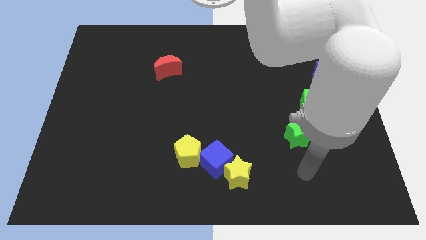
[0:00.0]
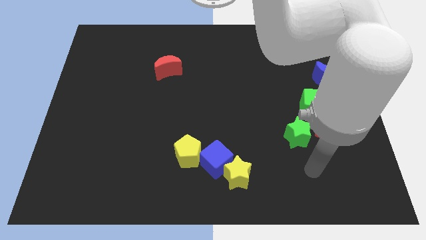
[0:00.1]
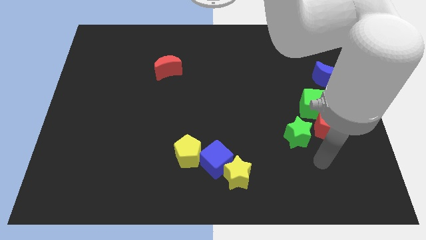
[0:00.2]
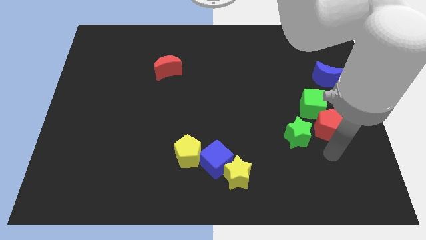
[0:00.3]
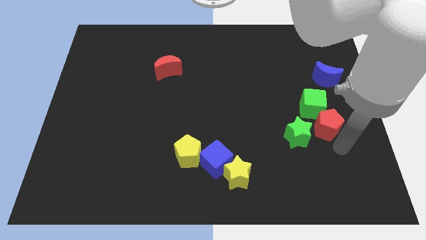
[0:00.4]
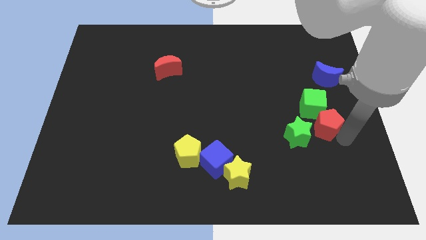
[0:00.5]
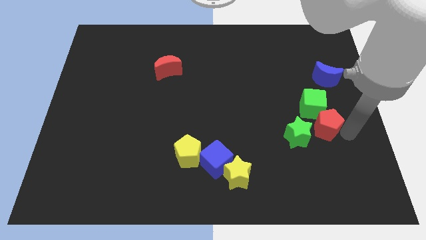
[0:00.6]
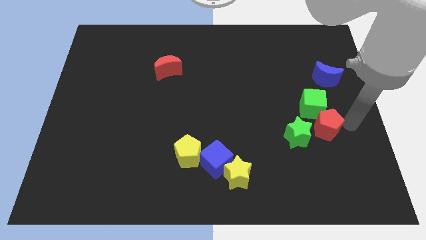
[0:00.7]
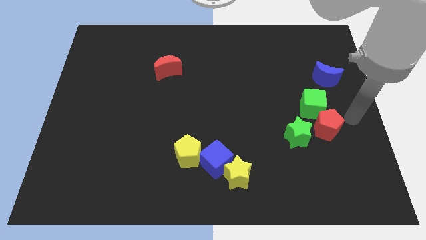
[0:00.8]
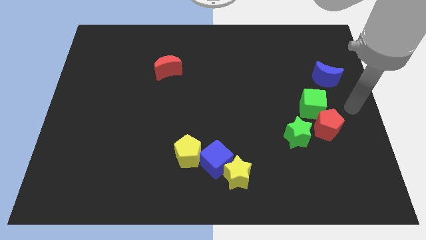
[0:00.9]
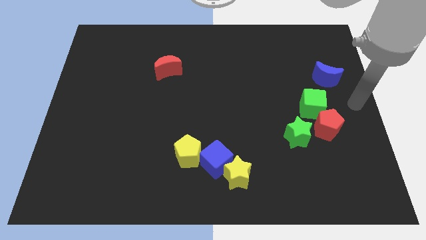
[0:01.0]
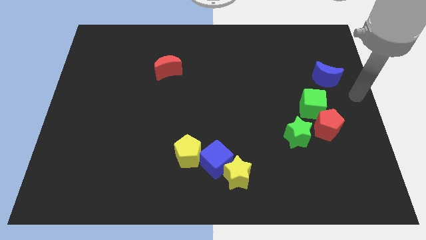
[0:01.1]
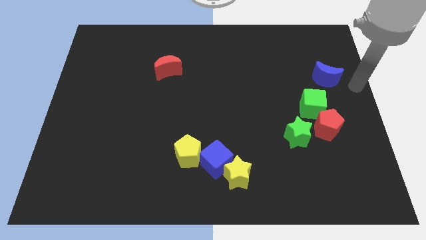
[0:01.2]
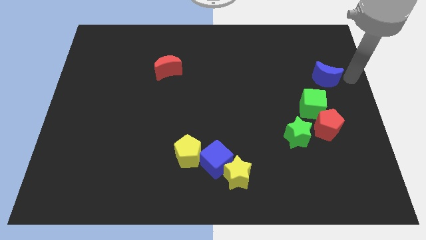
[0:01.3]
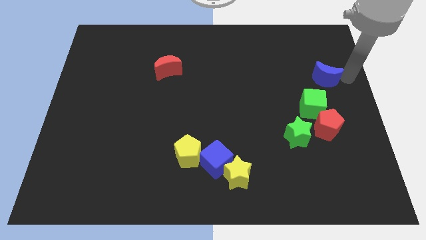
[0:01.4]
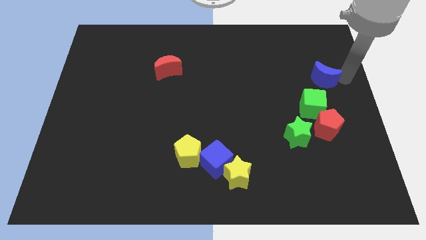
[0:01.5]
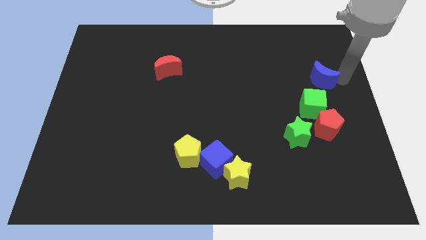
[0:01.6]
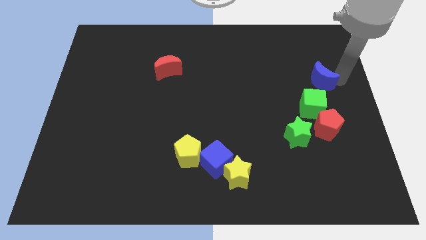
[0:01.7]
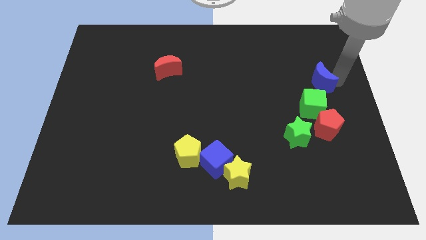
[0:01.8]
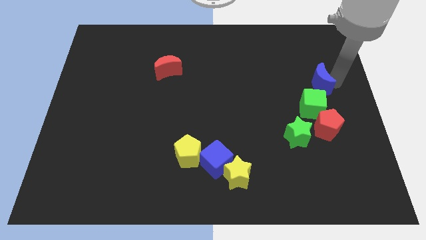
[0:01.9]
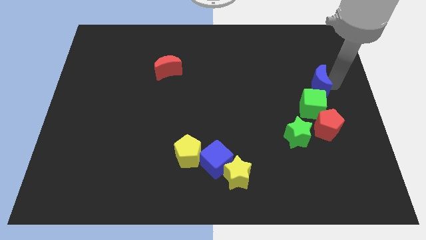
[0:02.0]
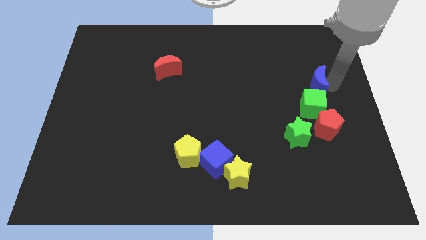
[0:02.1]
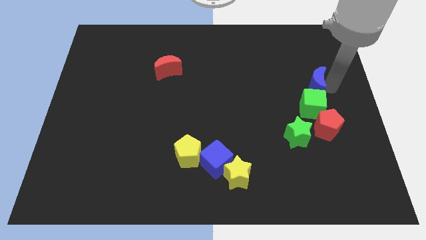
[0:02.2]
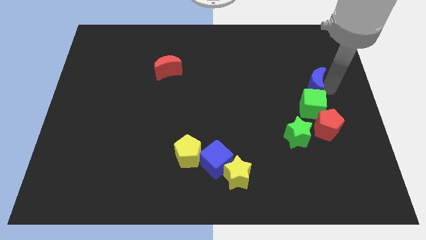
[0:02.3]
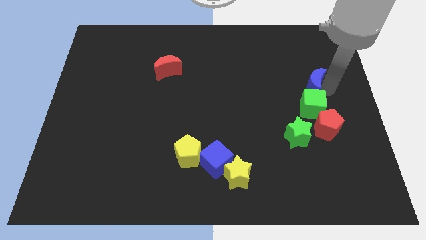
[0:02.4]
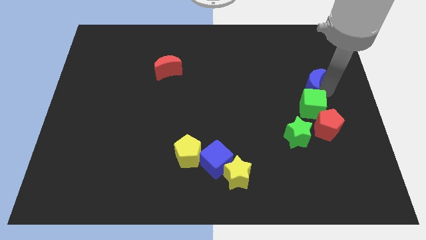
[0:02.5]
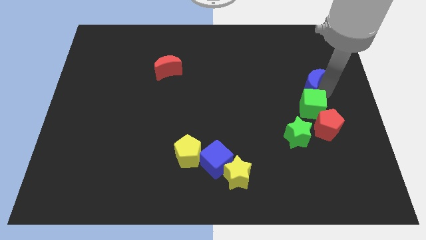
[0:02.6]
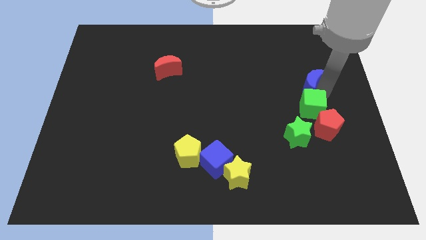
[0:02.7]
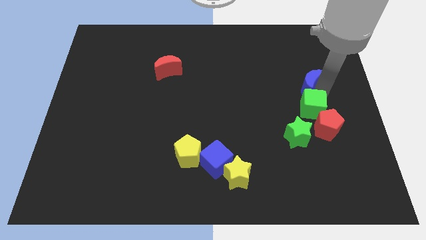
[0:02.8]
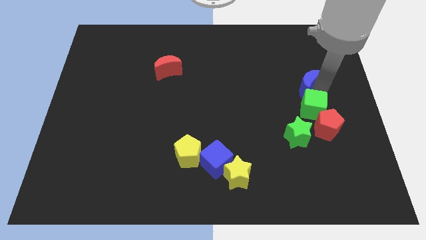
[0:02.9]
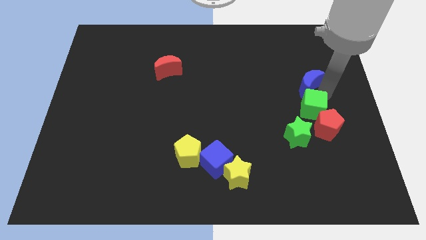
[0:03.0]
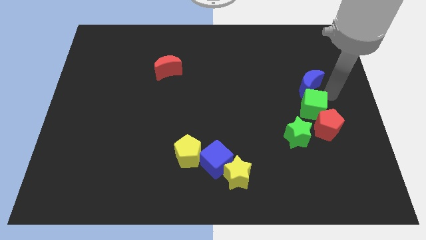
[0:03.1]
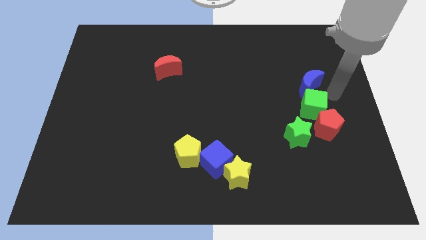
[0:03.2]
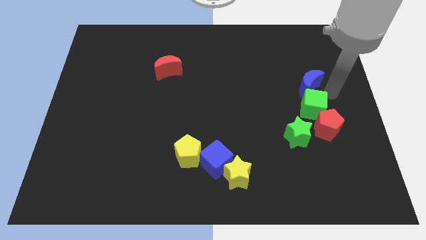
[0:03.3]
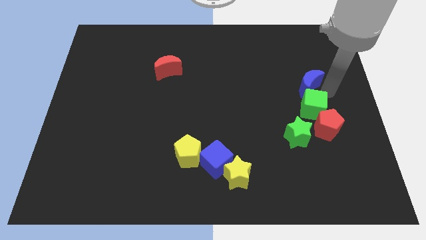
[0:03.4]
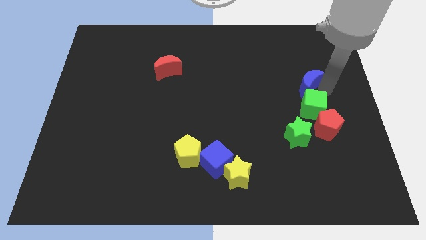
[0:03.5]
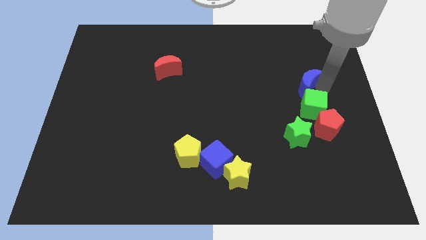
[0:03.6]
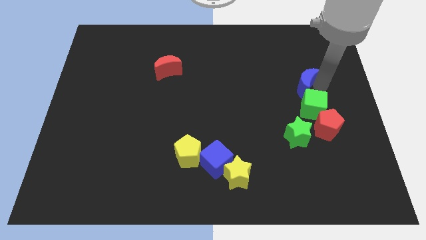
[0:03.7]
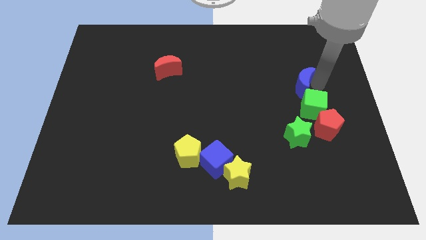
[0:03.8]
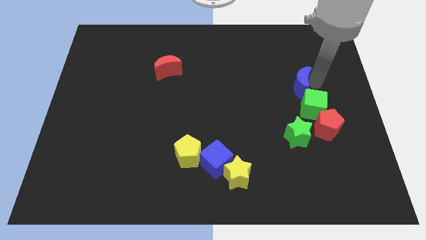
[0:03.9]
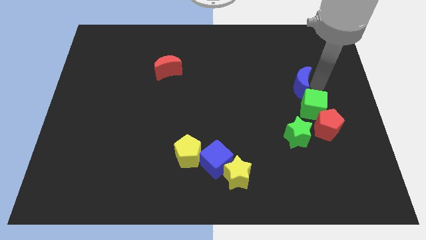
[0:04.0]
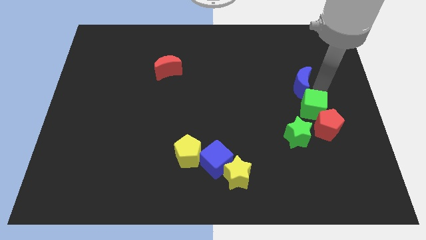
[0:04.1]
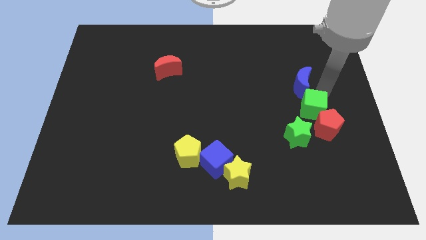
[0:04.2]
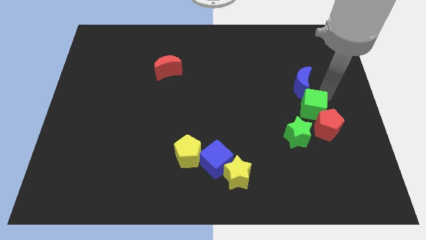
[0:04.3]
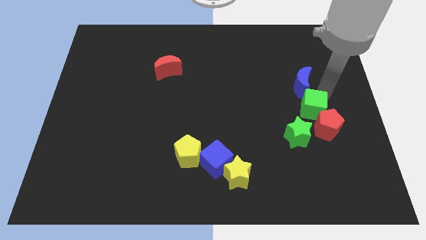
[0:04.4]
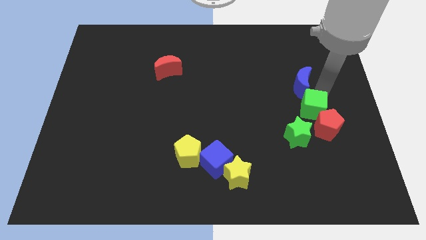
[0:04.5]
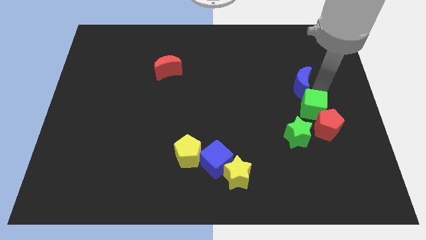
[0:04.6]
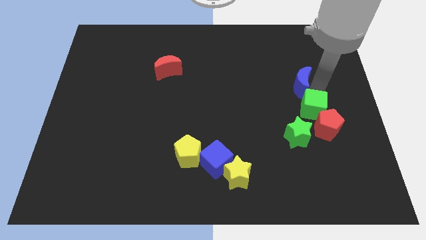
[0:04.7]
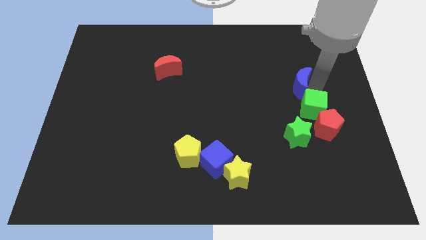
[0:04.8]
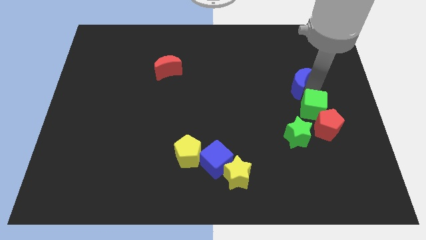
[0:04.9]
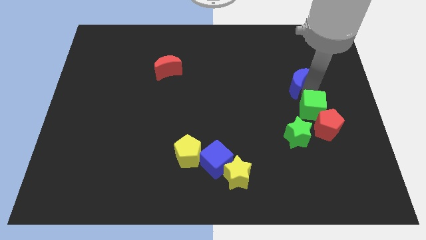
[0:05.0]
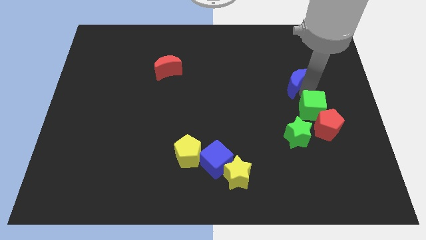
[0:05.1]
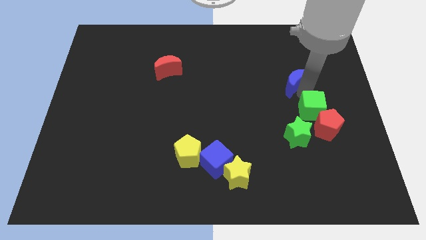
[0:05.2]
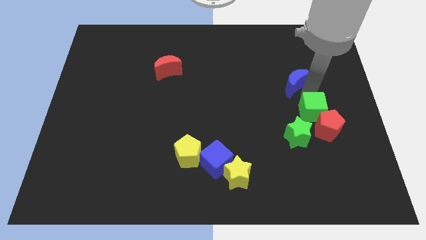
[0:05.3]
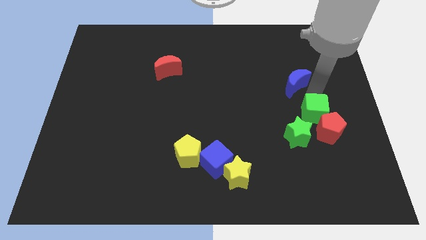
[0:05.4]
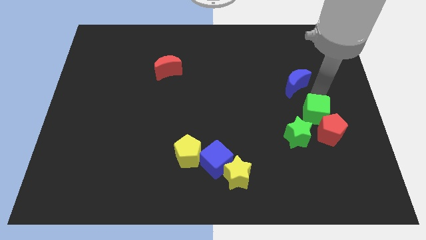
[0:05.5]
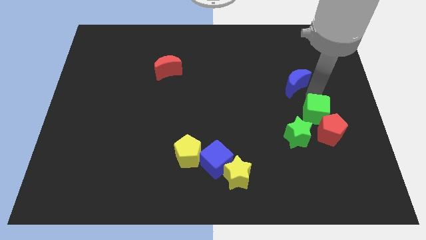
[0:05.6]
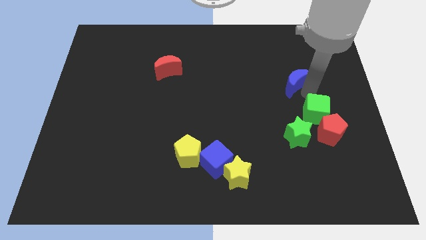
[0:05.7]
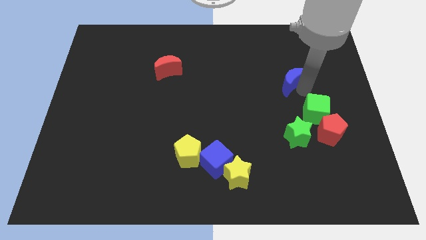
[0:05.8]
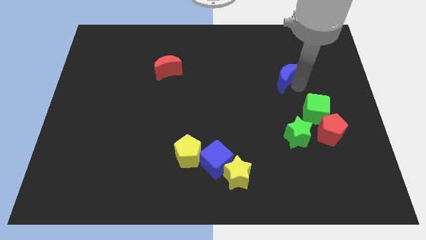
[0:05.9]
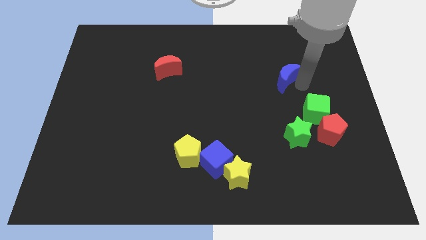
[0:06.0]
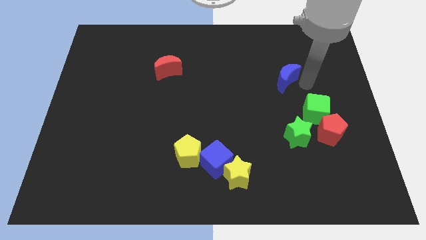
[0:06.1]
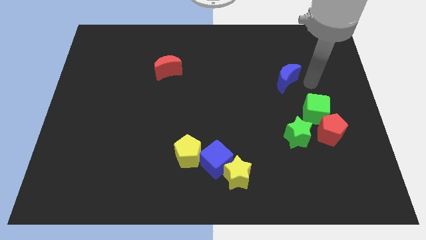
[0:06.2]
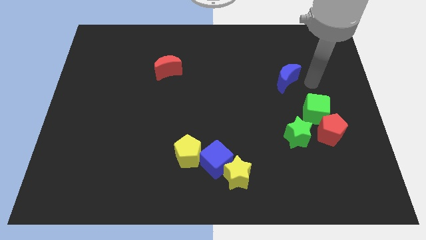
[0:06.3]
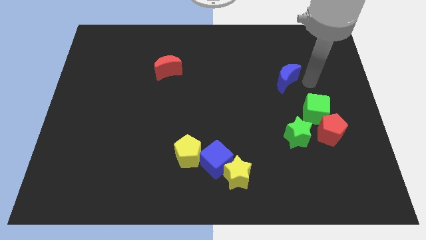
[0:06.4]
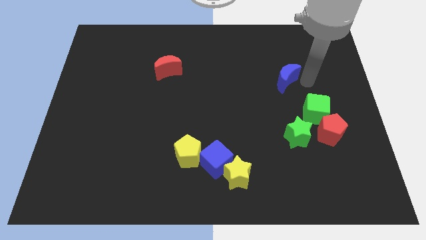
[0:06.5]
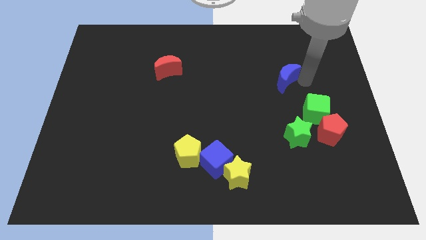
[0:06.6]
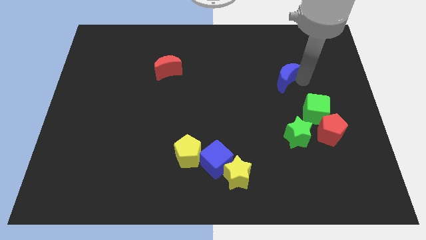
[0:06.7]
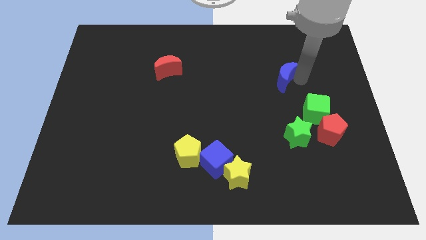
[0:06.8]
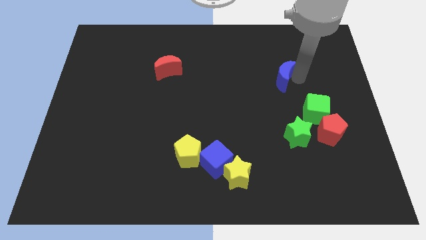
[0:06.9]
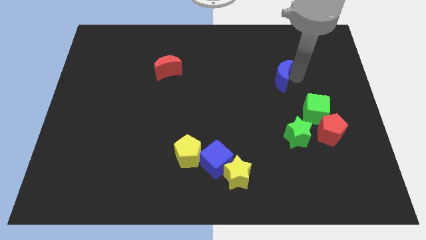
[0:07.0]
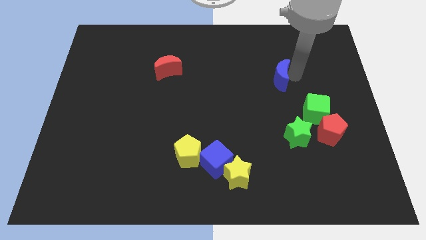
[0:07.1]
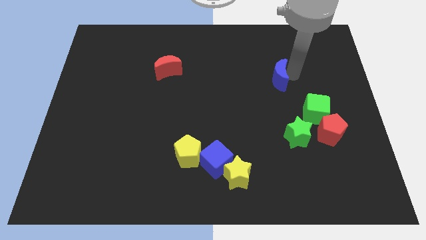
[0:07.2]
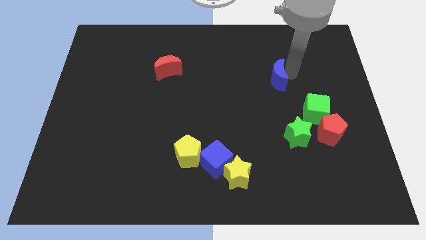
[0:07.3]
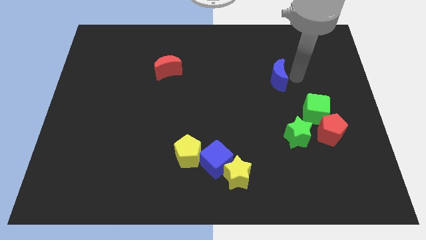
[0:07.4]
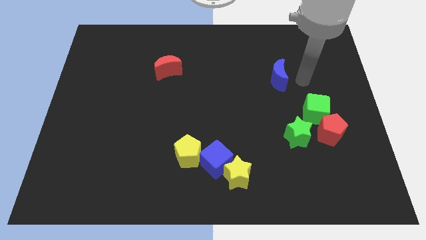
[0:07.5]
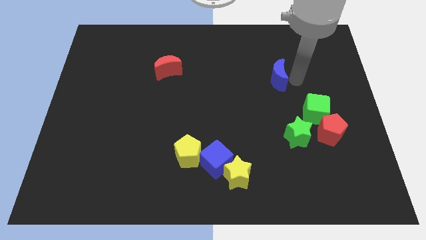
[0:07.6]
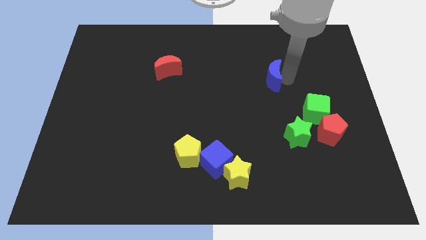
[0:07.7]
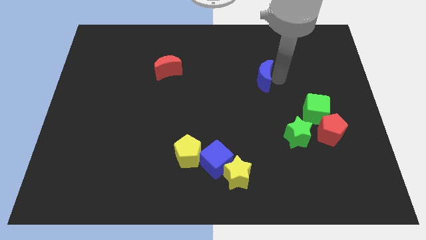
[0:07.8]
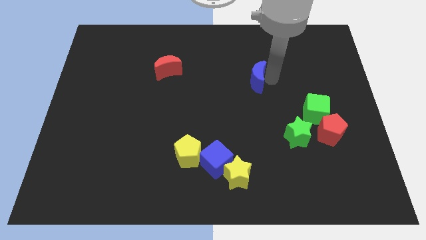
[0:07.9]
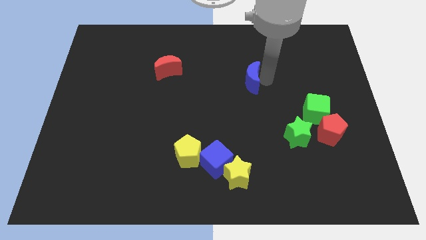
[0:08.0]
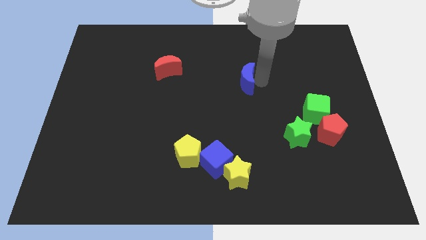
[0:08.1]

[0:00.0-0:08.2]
slide the blue moon to the left
